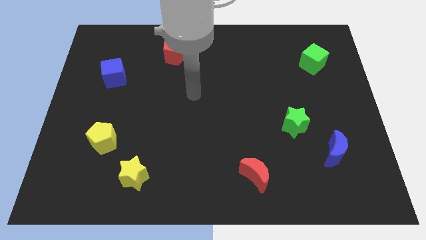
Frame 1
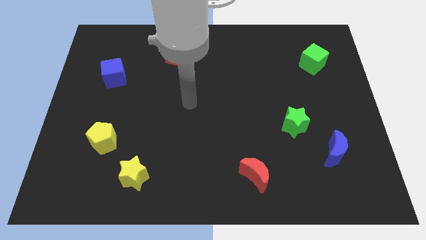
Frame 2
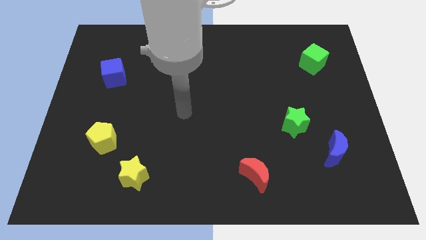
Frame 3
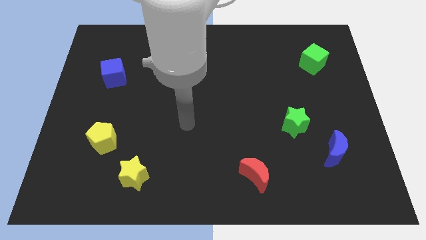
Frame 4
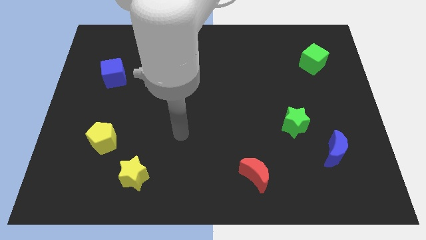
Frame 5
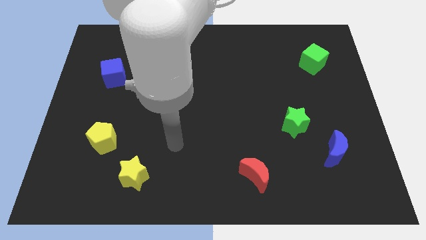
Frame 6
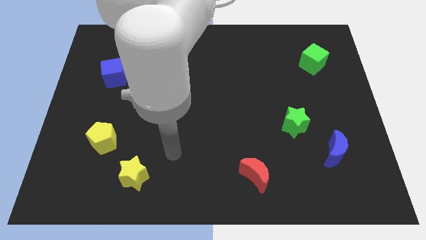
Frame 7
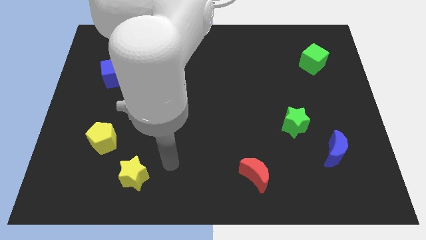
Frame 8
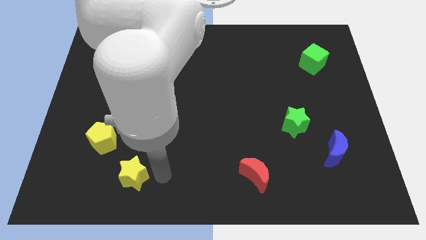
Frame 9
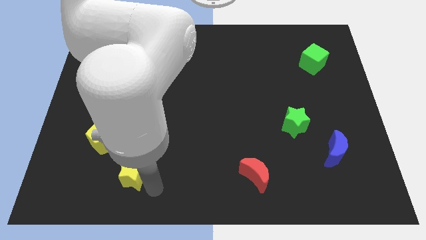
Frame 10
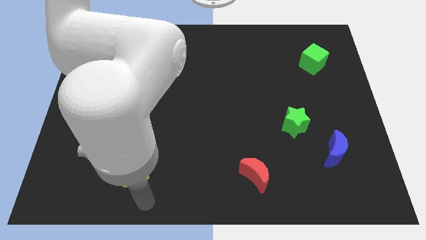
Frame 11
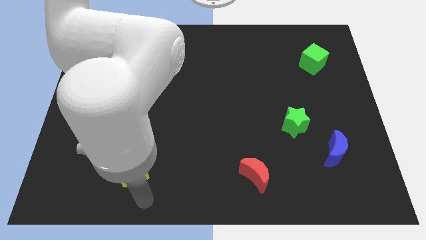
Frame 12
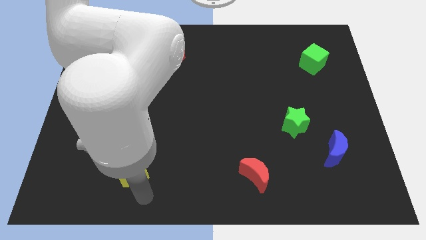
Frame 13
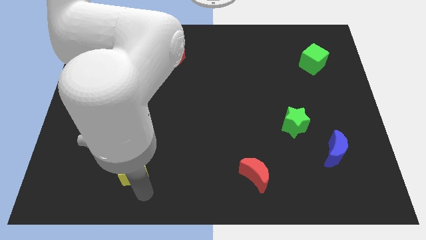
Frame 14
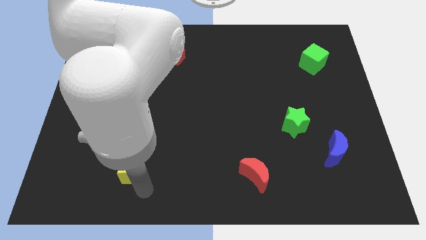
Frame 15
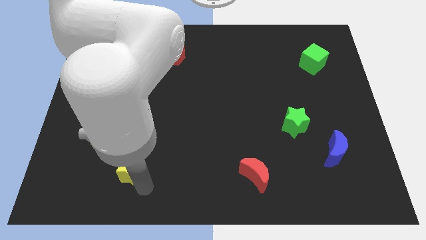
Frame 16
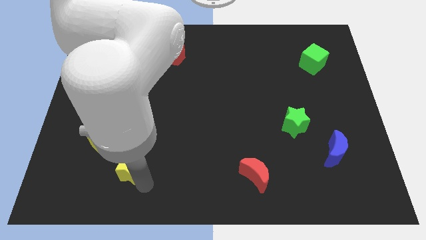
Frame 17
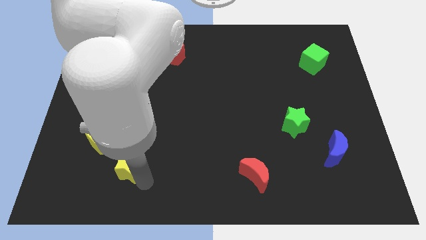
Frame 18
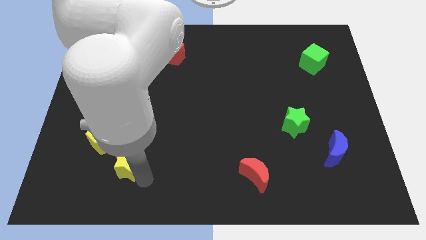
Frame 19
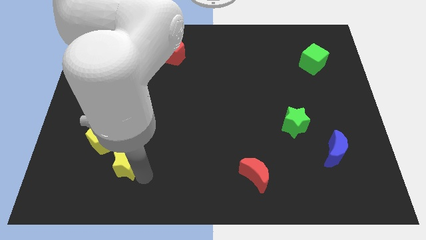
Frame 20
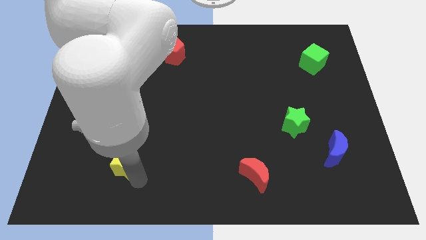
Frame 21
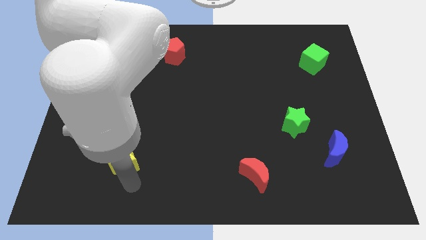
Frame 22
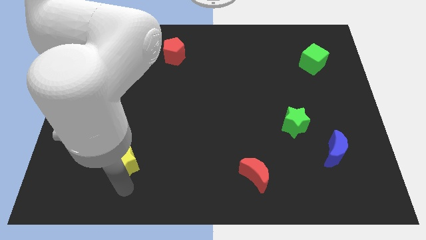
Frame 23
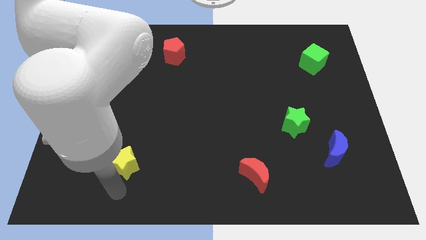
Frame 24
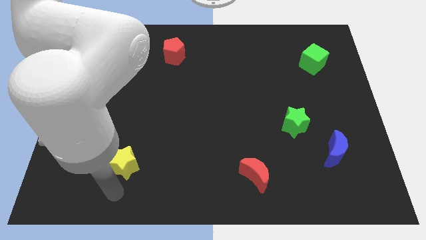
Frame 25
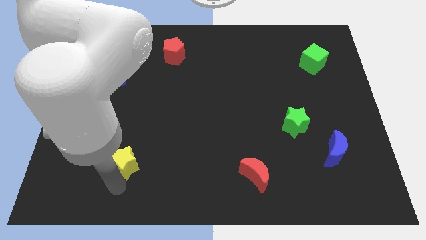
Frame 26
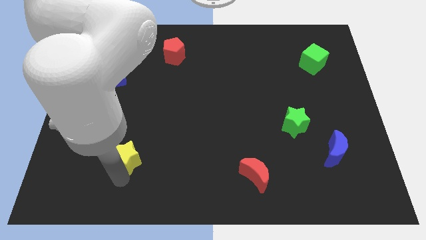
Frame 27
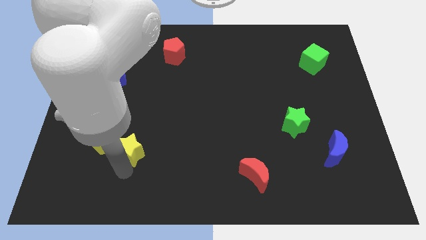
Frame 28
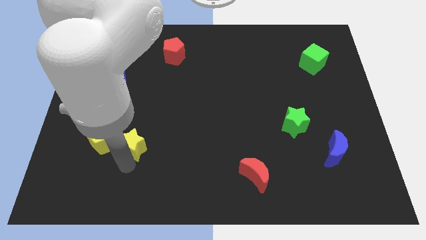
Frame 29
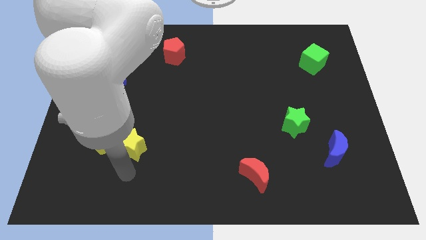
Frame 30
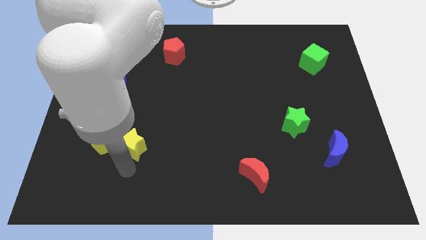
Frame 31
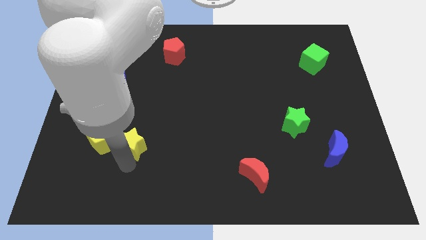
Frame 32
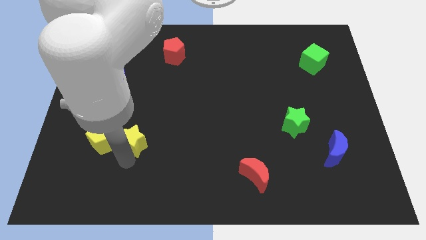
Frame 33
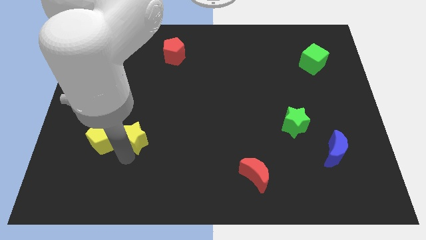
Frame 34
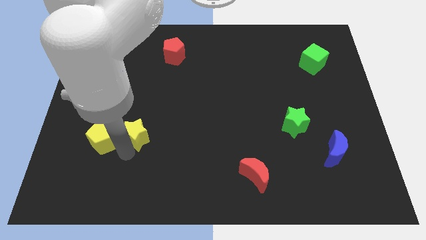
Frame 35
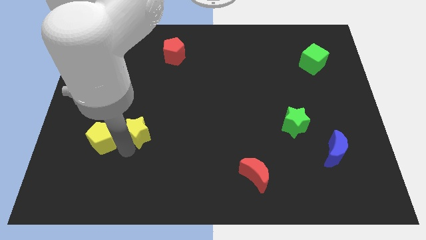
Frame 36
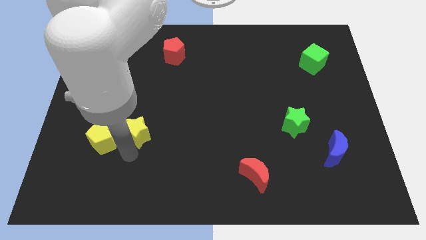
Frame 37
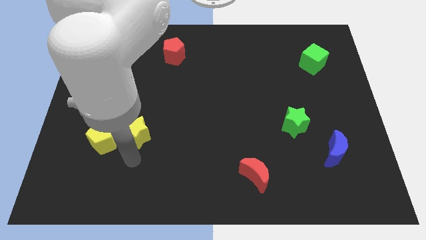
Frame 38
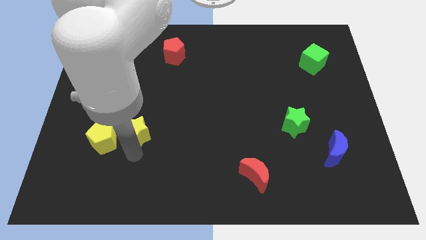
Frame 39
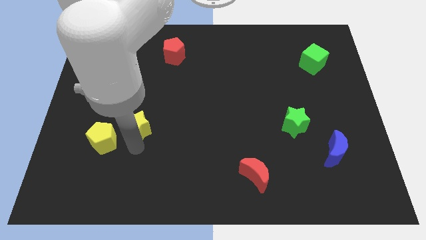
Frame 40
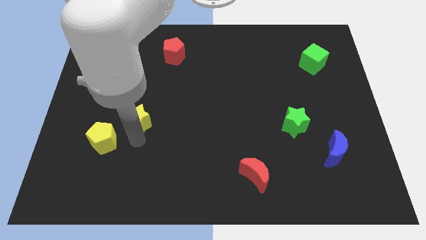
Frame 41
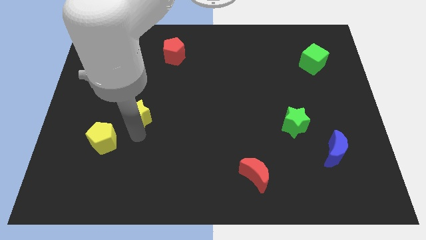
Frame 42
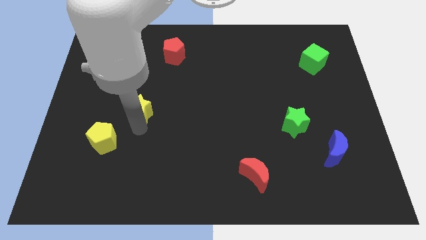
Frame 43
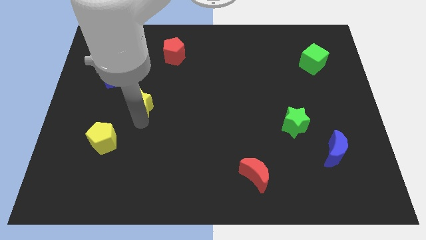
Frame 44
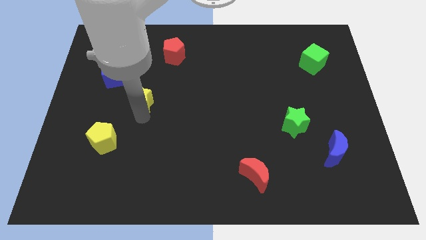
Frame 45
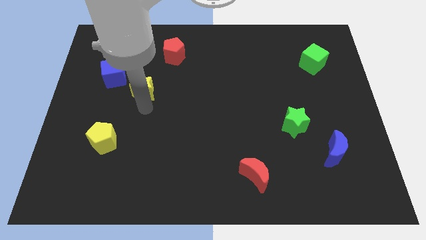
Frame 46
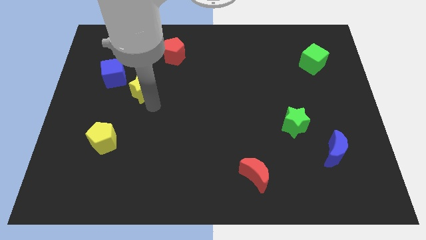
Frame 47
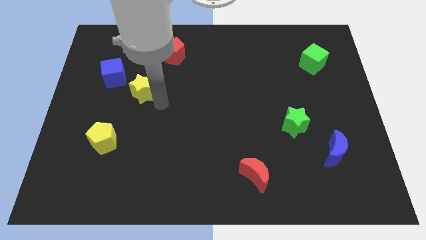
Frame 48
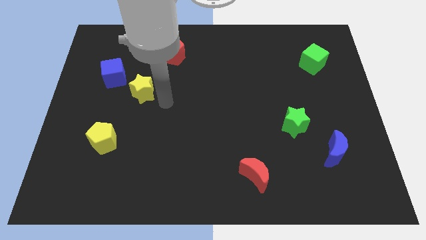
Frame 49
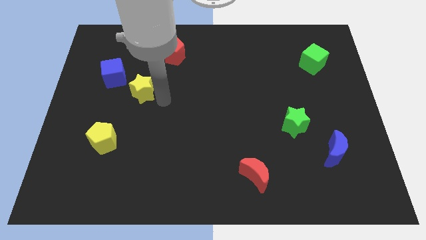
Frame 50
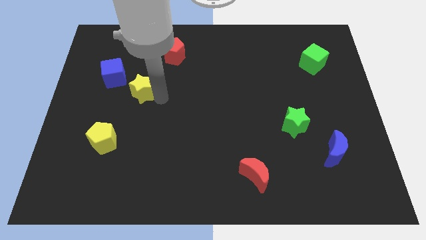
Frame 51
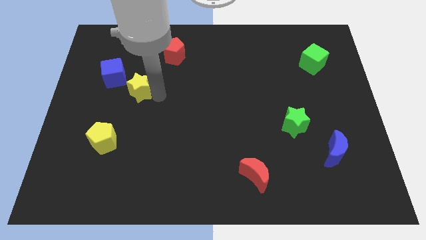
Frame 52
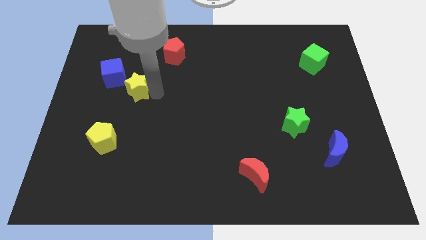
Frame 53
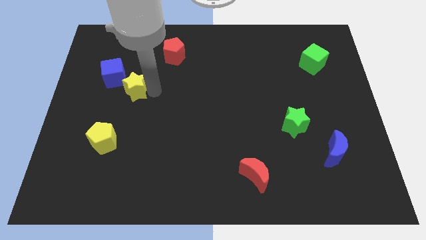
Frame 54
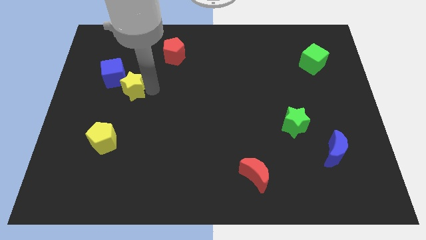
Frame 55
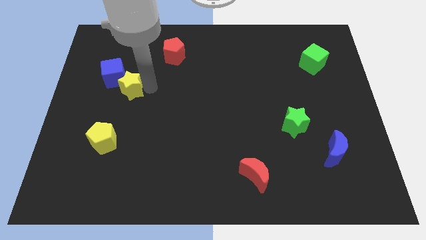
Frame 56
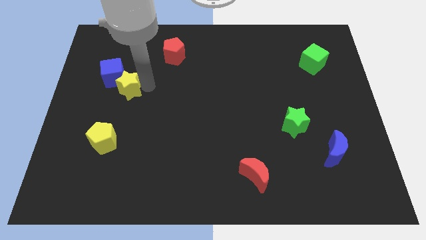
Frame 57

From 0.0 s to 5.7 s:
slide the yellow star next to the blue cube

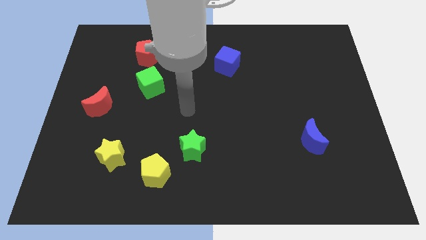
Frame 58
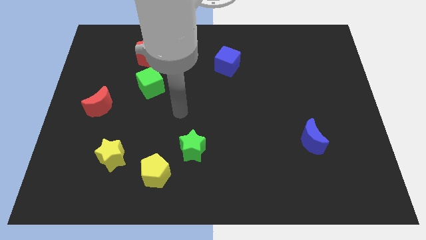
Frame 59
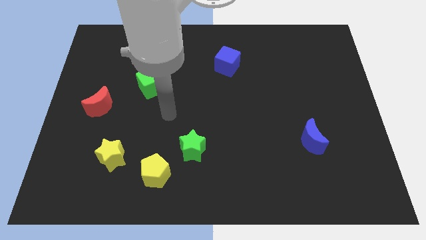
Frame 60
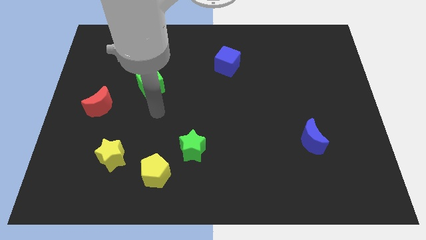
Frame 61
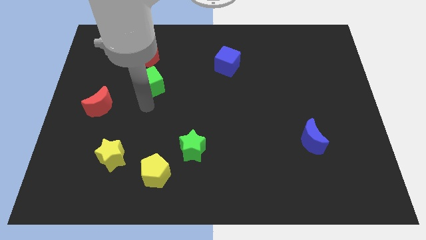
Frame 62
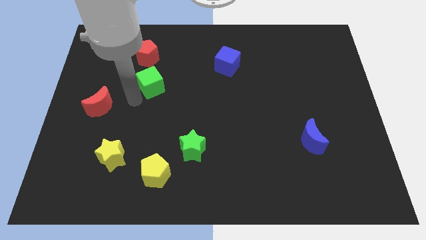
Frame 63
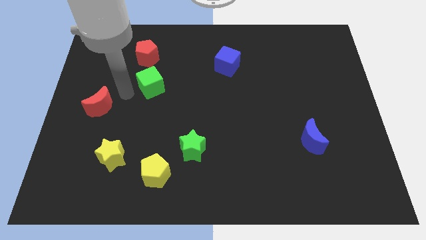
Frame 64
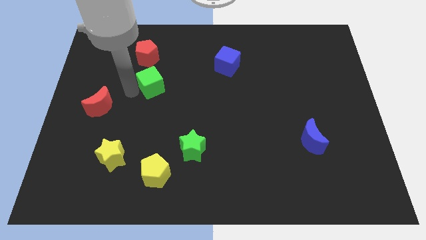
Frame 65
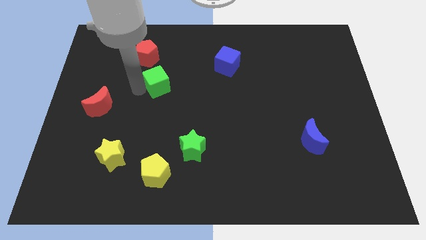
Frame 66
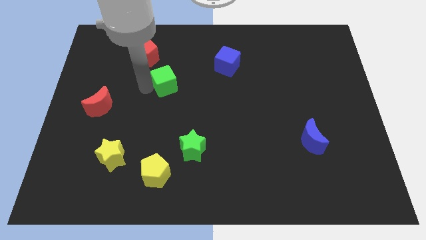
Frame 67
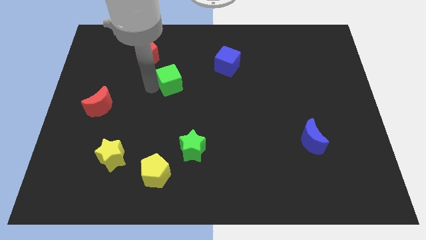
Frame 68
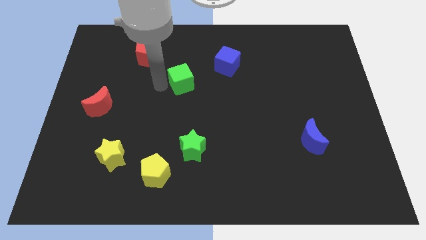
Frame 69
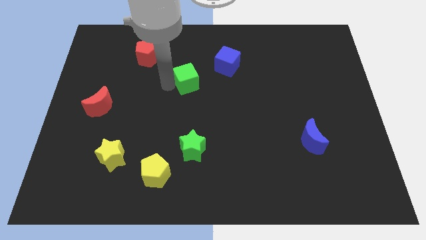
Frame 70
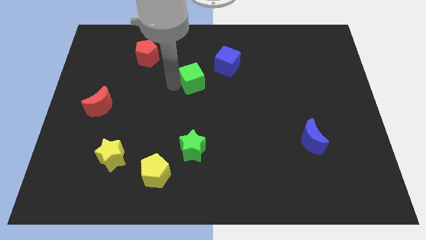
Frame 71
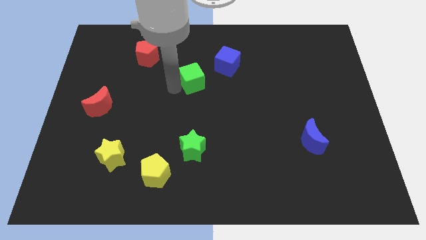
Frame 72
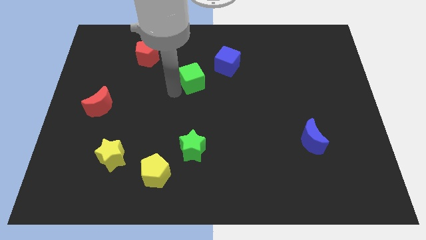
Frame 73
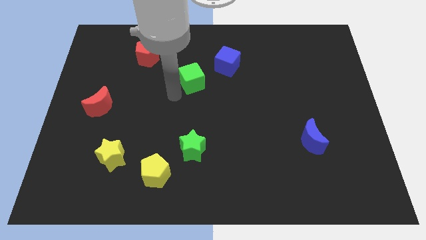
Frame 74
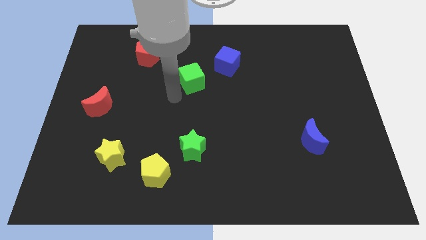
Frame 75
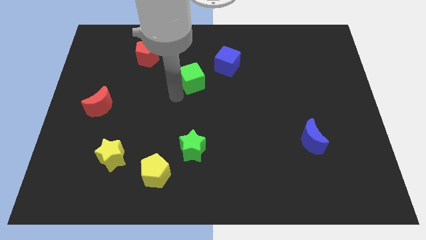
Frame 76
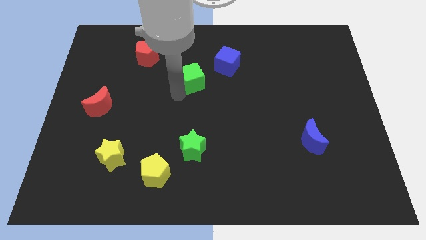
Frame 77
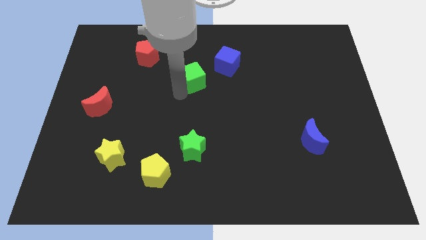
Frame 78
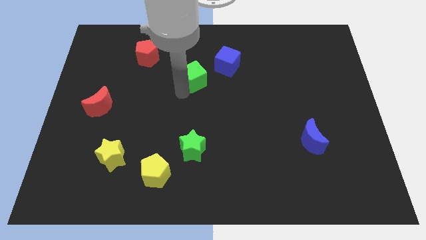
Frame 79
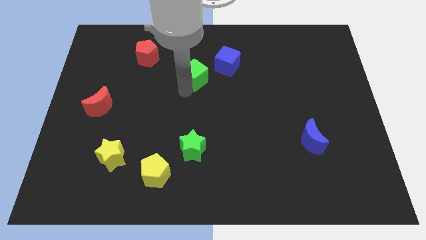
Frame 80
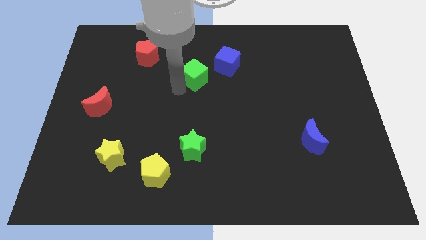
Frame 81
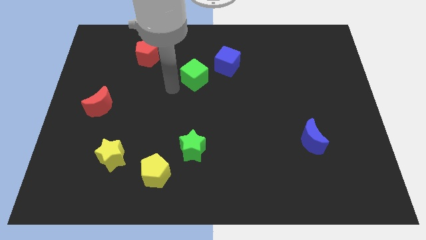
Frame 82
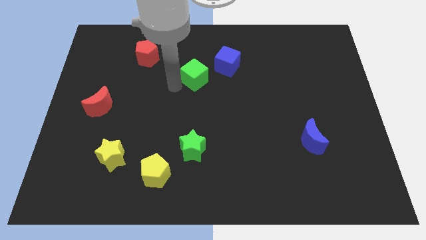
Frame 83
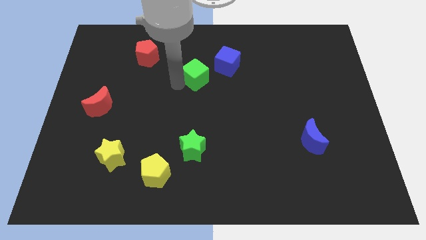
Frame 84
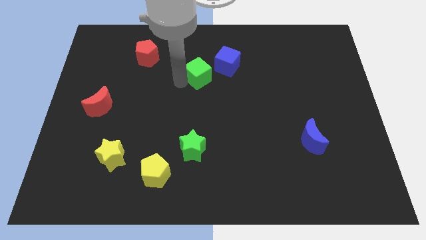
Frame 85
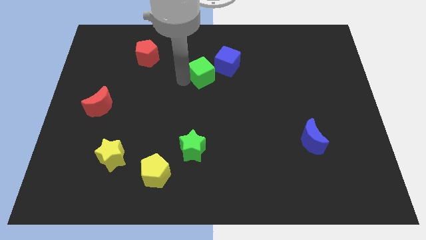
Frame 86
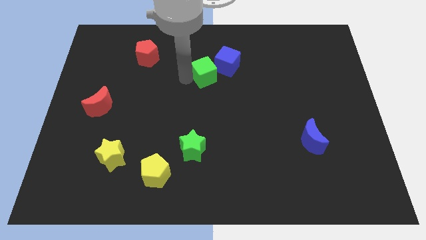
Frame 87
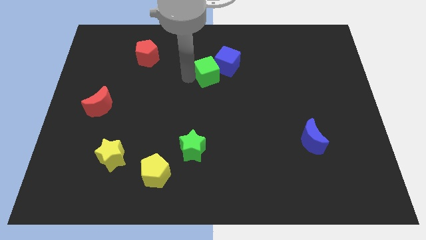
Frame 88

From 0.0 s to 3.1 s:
move the green cube next to the blue cube
